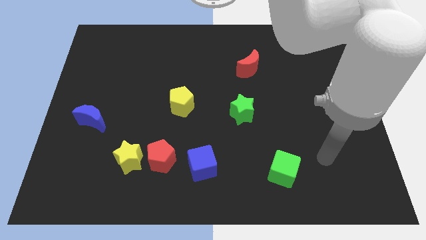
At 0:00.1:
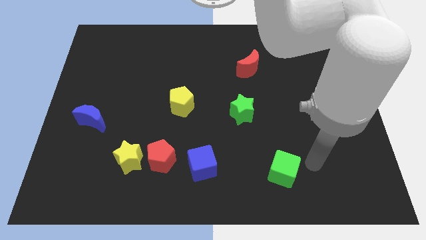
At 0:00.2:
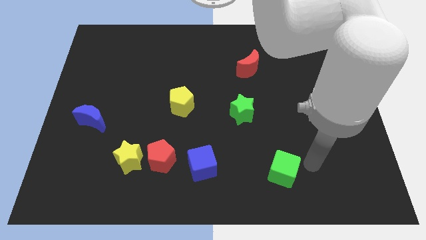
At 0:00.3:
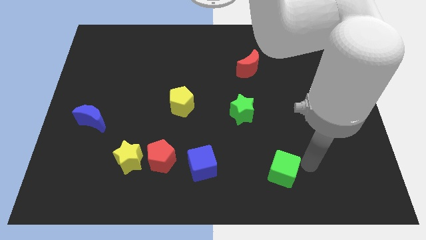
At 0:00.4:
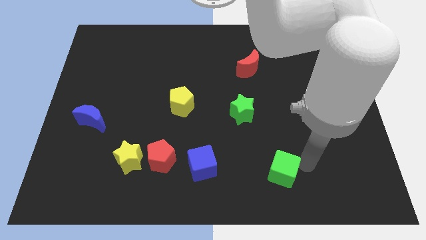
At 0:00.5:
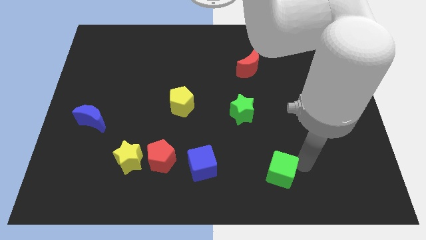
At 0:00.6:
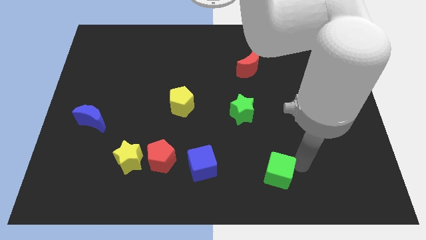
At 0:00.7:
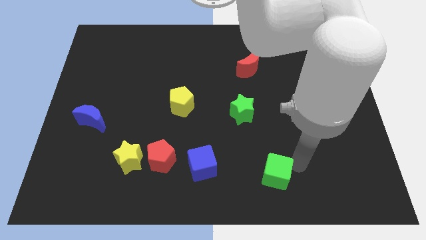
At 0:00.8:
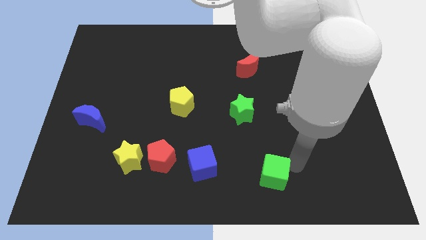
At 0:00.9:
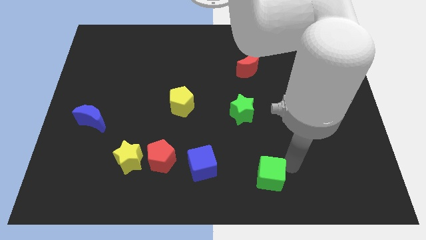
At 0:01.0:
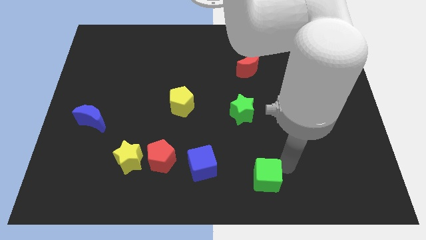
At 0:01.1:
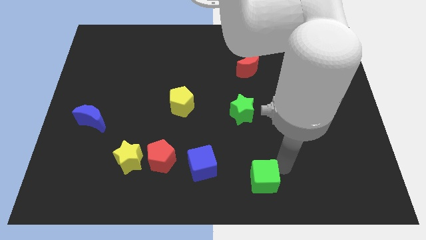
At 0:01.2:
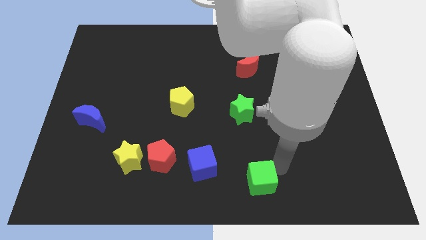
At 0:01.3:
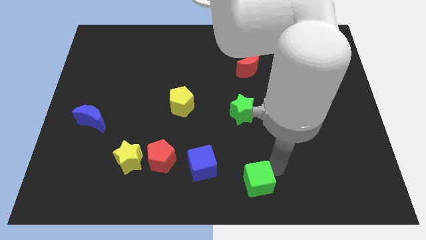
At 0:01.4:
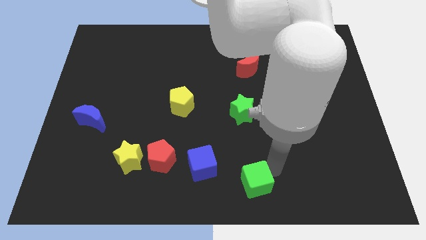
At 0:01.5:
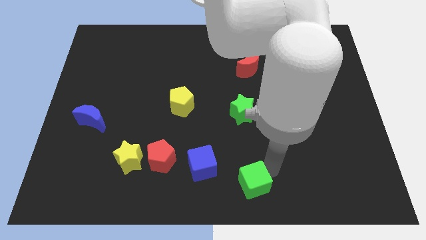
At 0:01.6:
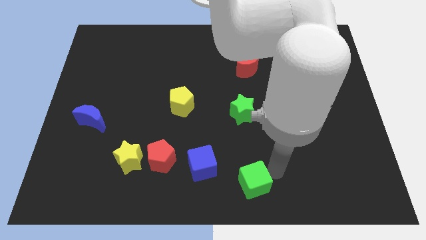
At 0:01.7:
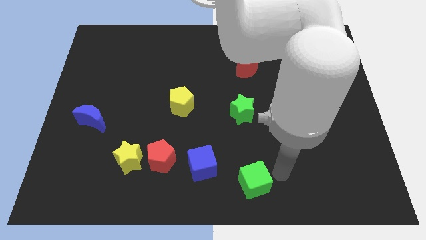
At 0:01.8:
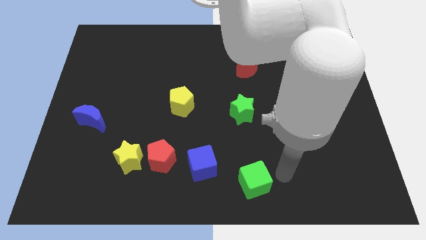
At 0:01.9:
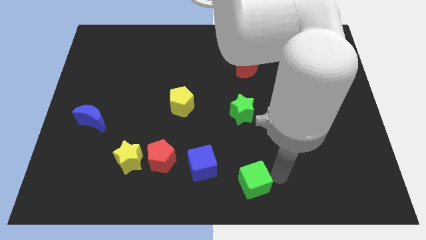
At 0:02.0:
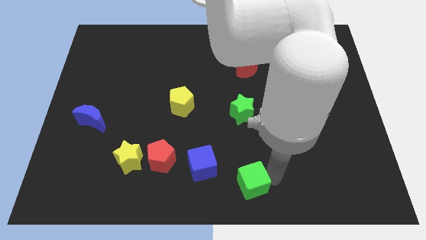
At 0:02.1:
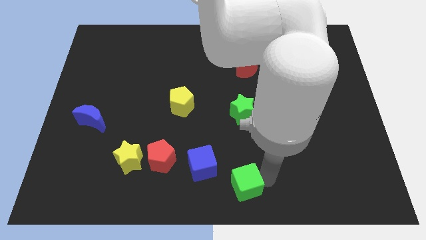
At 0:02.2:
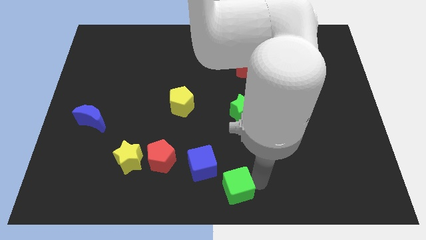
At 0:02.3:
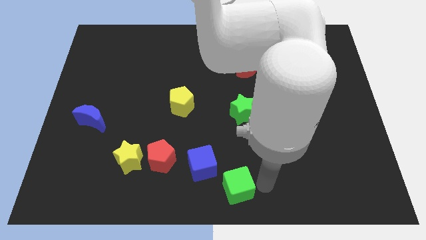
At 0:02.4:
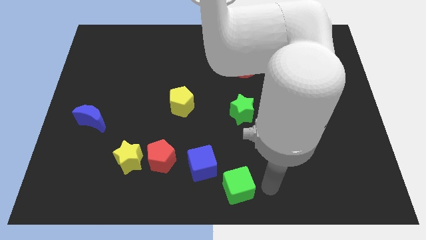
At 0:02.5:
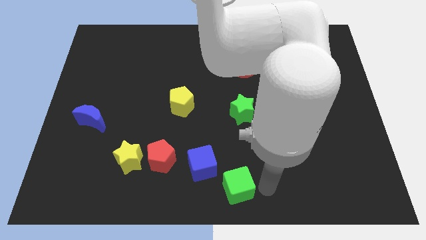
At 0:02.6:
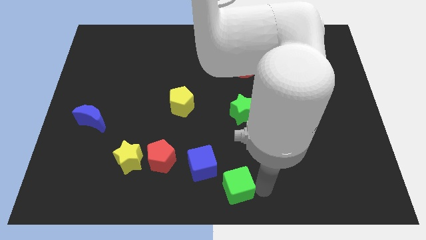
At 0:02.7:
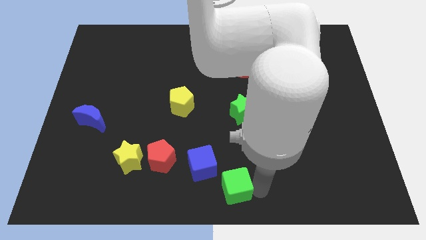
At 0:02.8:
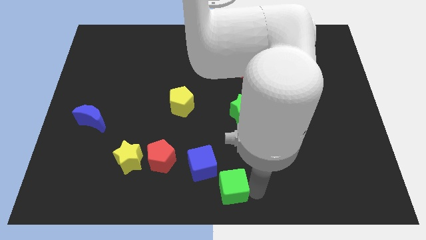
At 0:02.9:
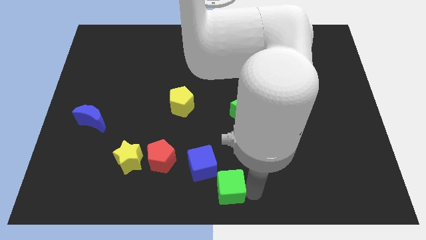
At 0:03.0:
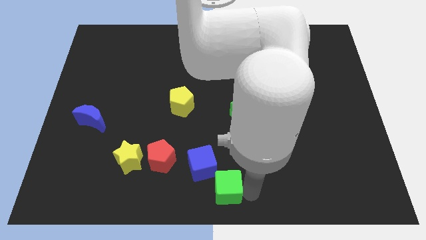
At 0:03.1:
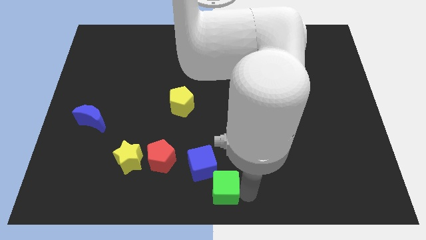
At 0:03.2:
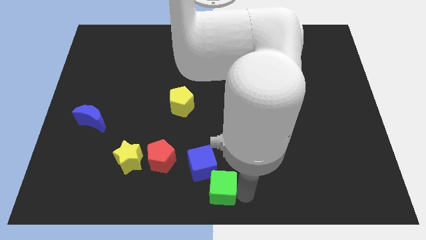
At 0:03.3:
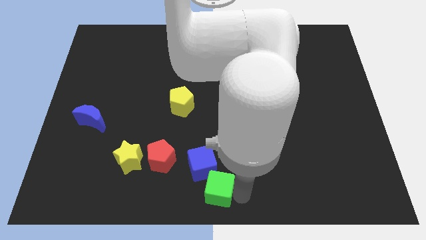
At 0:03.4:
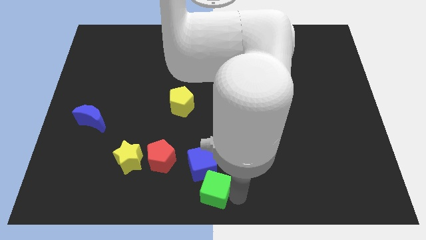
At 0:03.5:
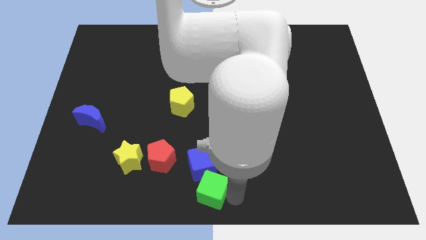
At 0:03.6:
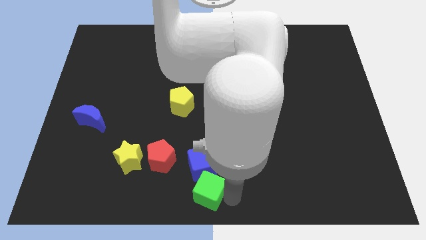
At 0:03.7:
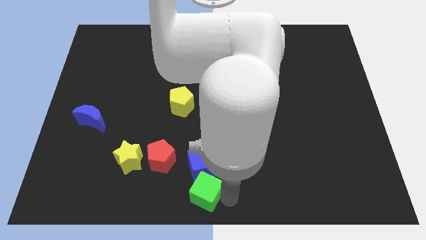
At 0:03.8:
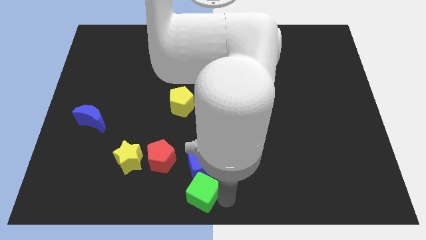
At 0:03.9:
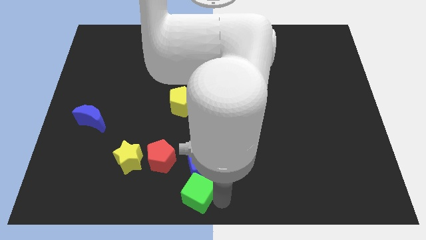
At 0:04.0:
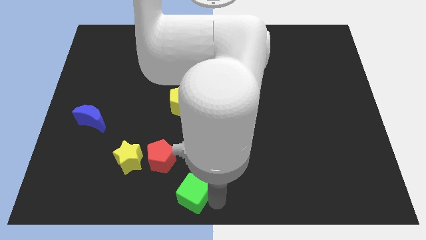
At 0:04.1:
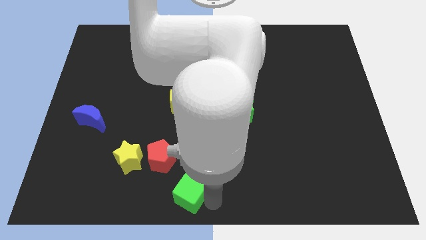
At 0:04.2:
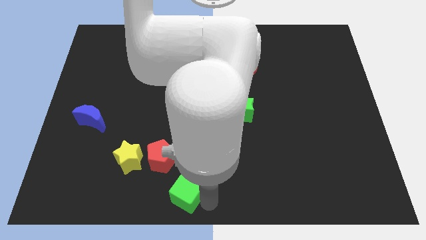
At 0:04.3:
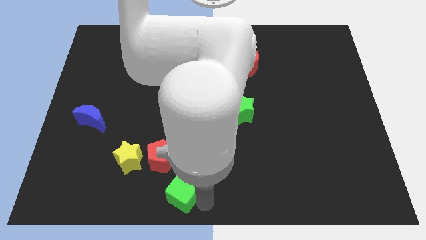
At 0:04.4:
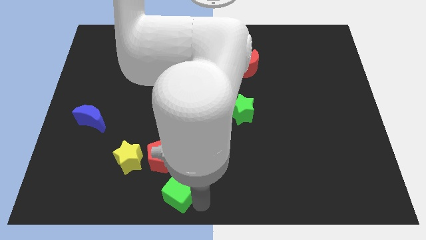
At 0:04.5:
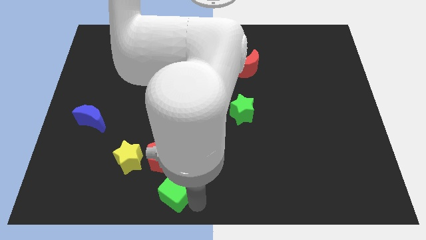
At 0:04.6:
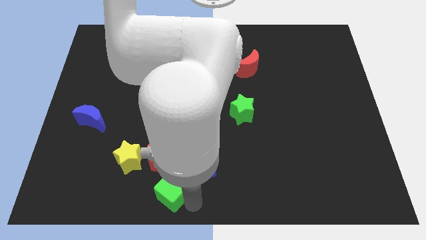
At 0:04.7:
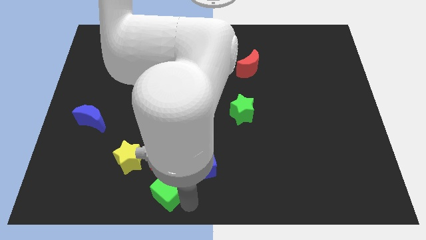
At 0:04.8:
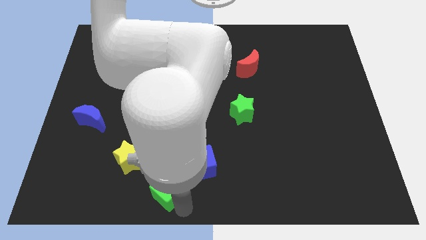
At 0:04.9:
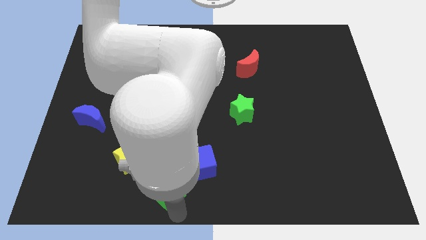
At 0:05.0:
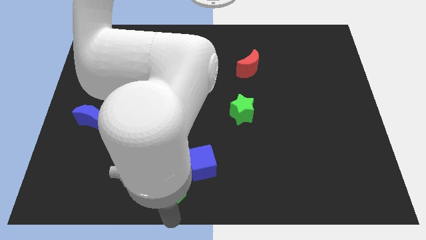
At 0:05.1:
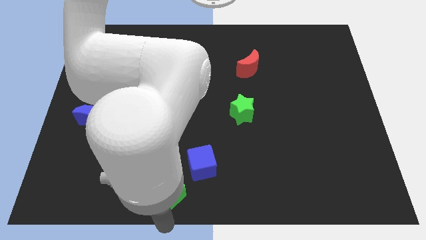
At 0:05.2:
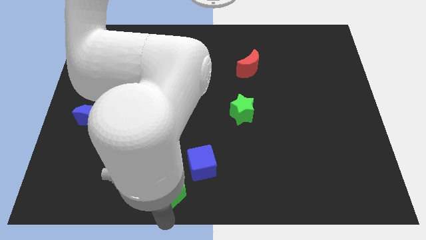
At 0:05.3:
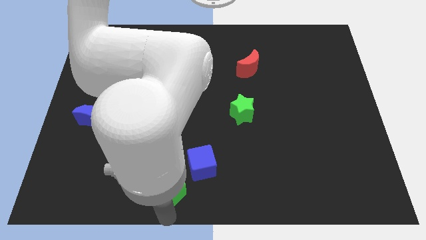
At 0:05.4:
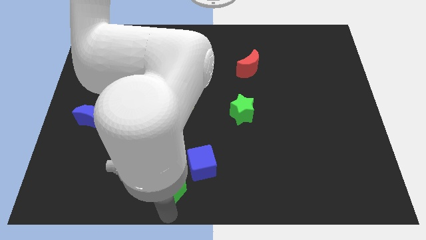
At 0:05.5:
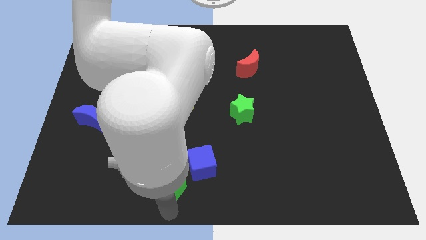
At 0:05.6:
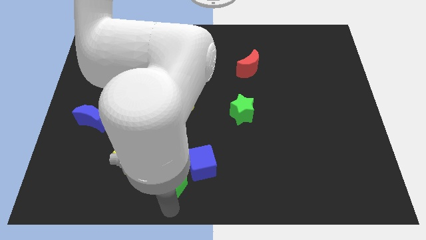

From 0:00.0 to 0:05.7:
slide the green cube towards the red pentagon

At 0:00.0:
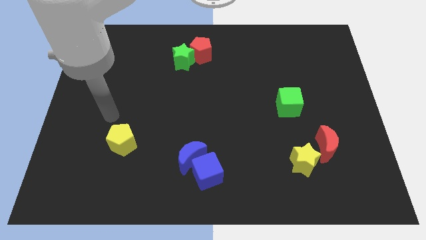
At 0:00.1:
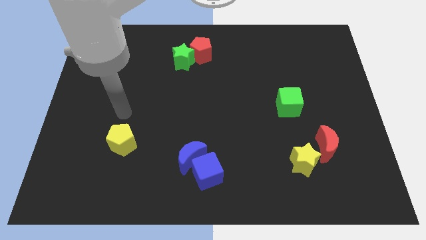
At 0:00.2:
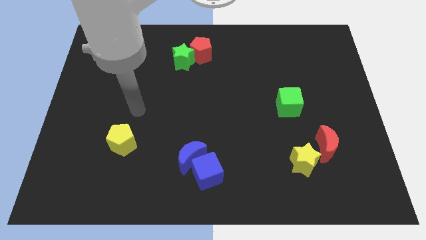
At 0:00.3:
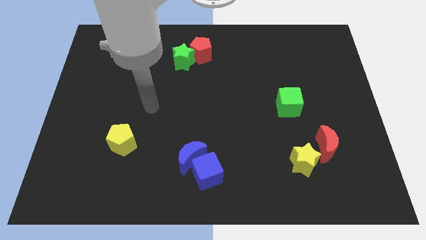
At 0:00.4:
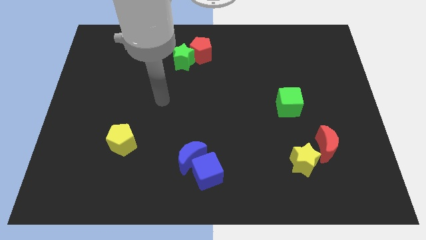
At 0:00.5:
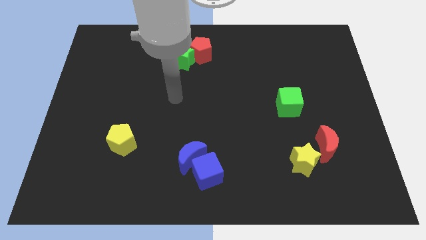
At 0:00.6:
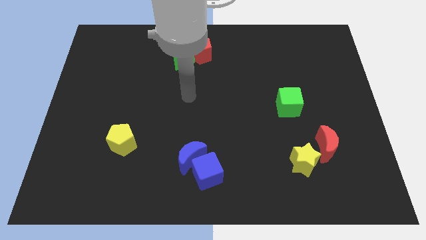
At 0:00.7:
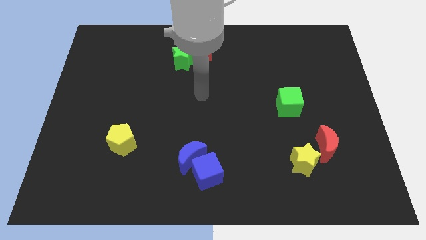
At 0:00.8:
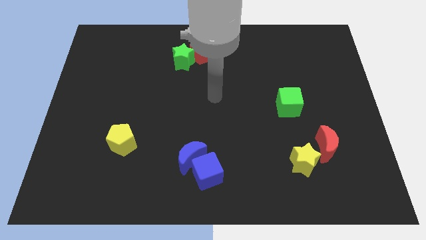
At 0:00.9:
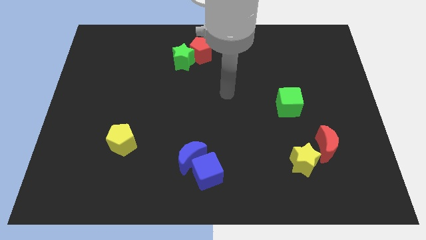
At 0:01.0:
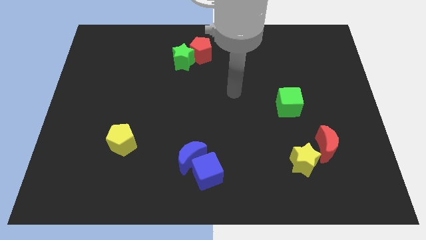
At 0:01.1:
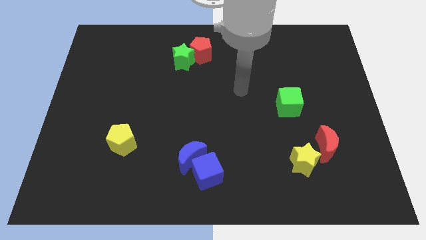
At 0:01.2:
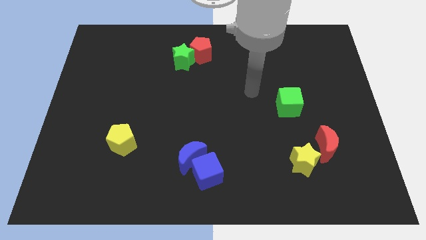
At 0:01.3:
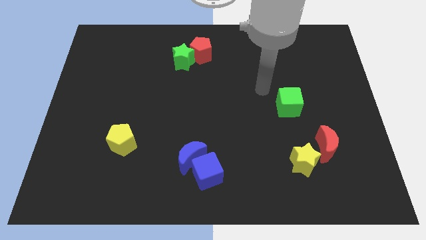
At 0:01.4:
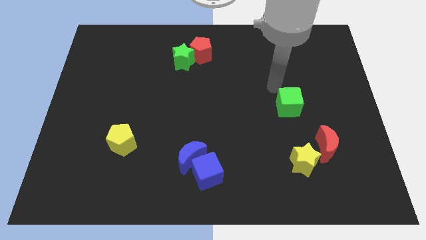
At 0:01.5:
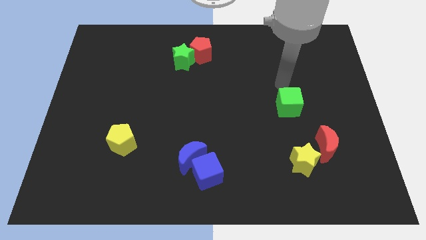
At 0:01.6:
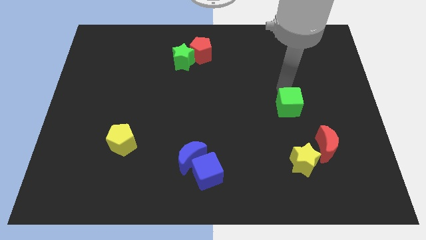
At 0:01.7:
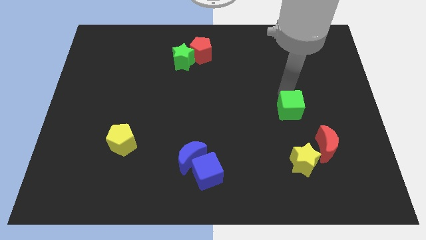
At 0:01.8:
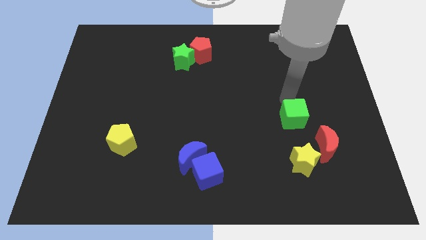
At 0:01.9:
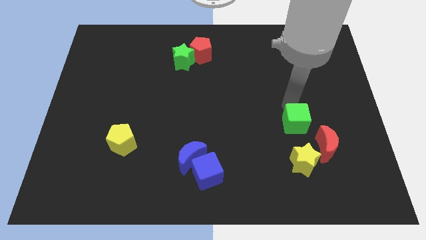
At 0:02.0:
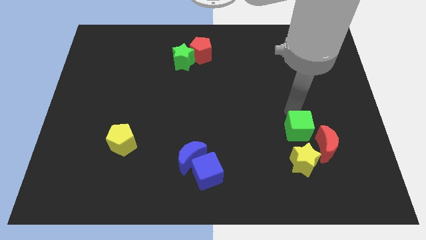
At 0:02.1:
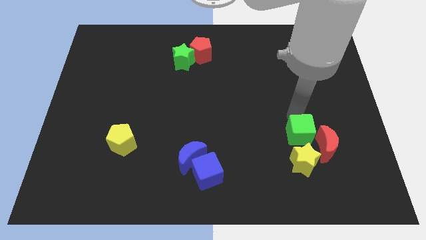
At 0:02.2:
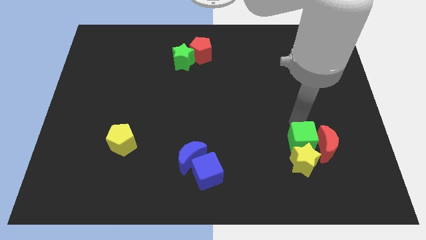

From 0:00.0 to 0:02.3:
slide the green cube to the yellow star
